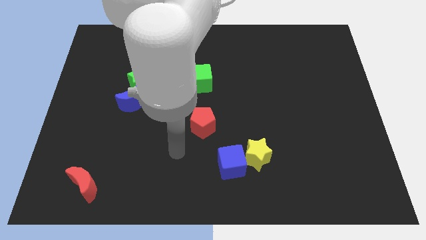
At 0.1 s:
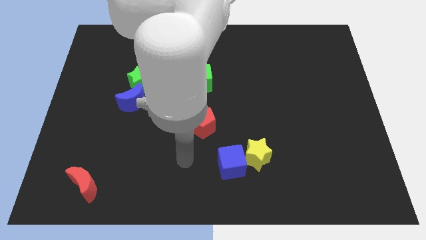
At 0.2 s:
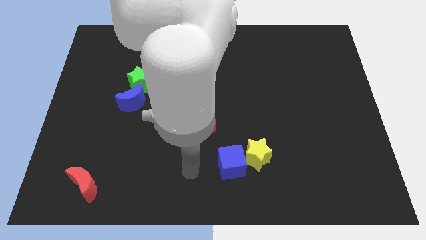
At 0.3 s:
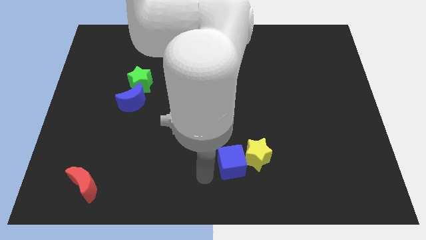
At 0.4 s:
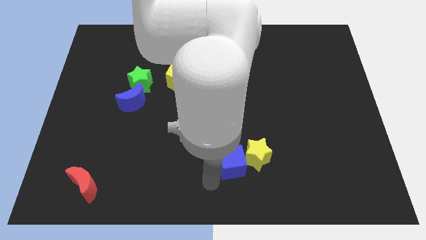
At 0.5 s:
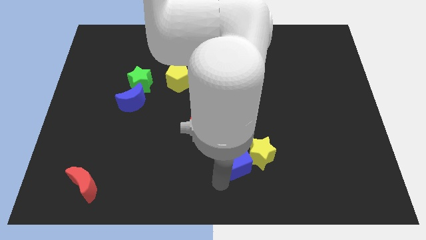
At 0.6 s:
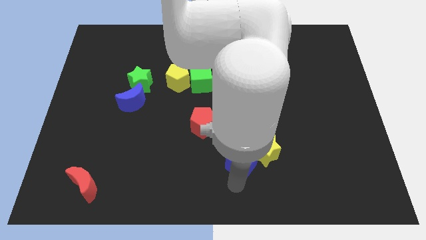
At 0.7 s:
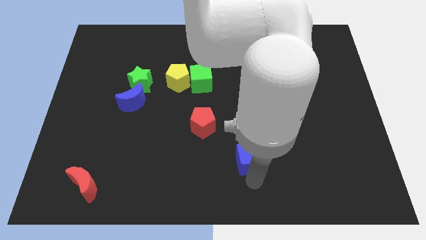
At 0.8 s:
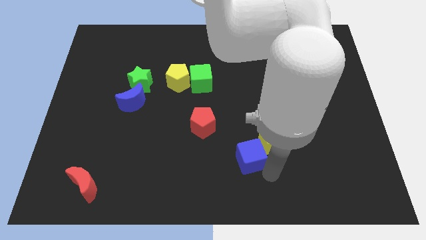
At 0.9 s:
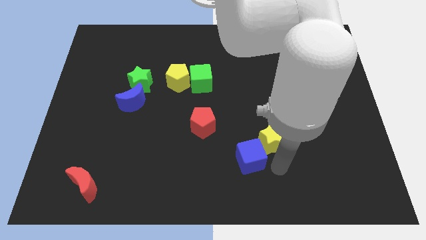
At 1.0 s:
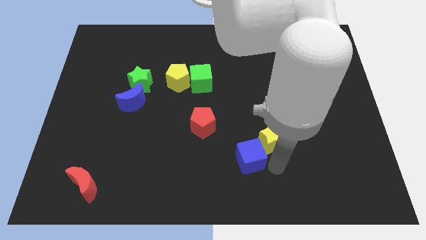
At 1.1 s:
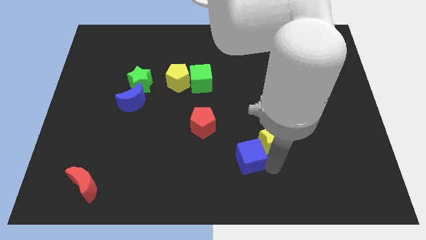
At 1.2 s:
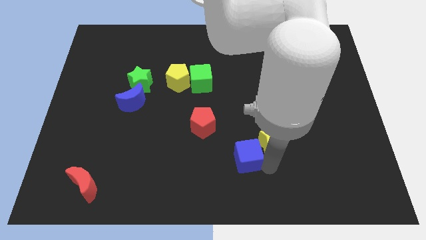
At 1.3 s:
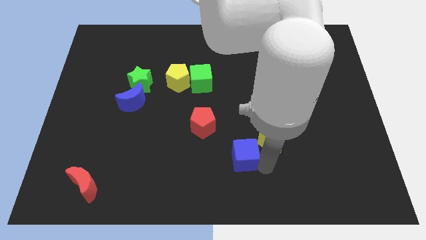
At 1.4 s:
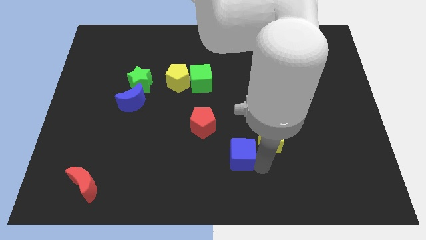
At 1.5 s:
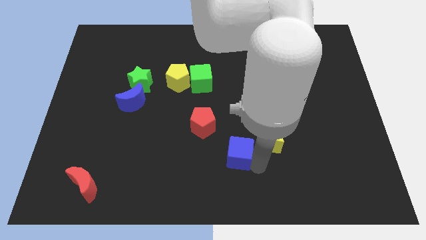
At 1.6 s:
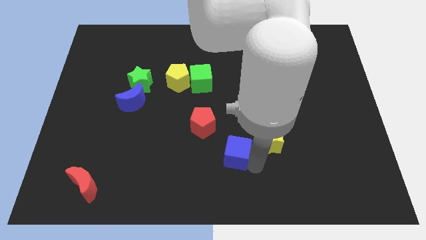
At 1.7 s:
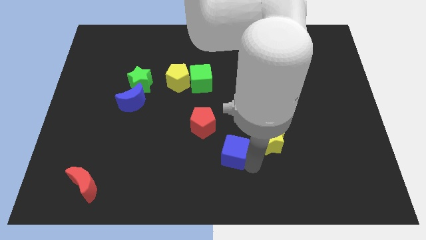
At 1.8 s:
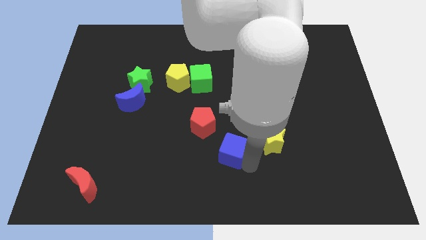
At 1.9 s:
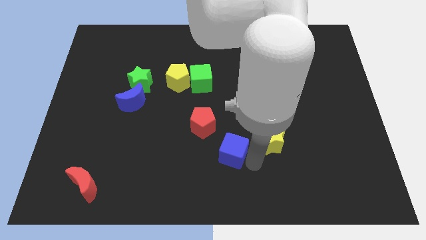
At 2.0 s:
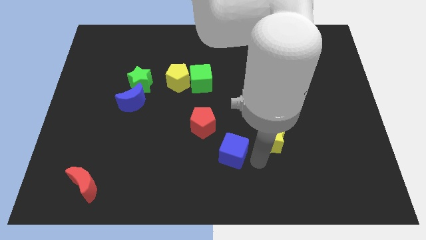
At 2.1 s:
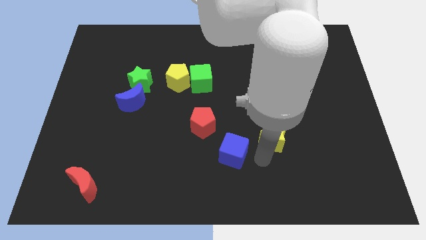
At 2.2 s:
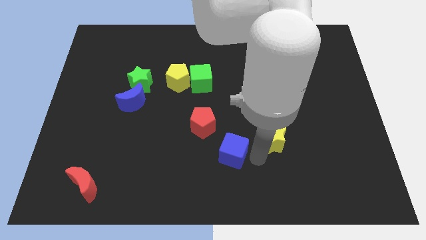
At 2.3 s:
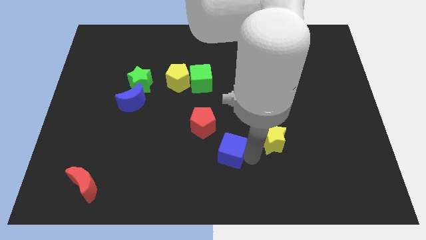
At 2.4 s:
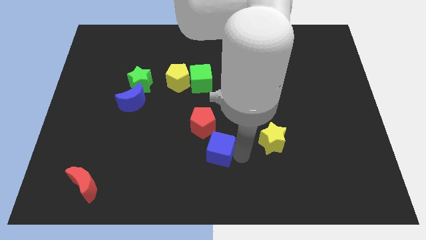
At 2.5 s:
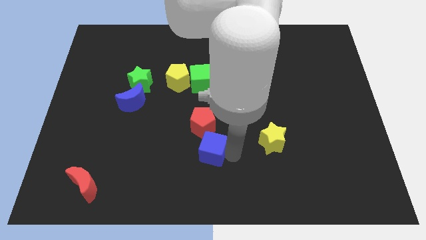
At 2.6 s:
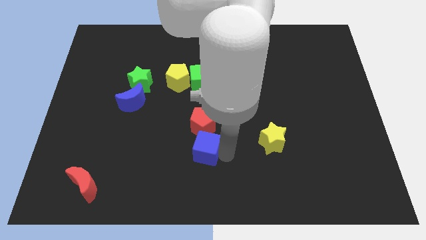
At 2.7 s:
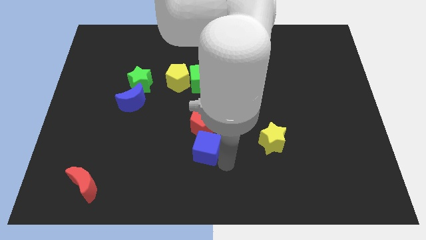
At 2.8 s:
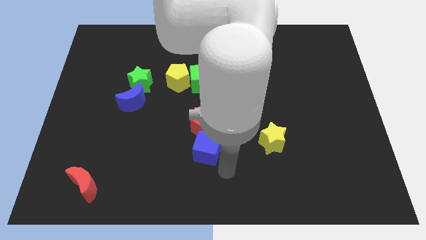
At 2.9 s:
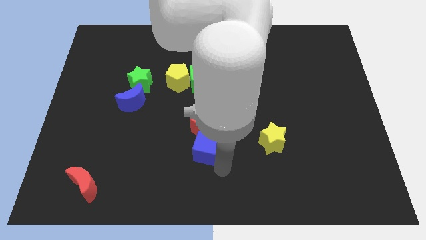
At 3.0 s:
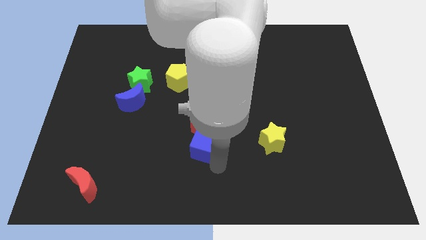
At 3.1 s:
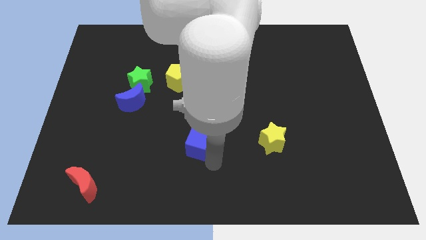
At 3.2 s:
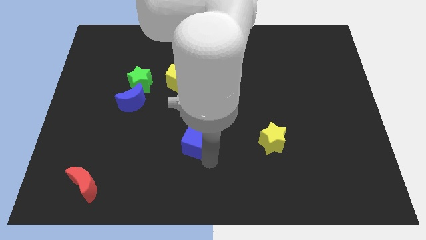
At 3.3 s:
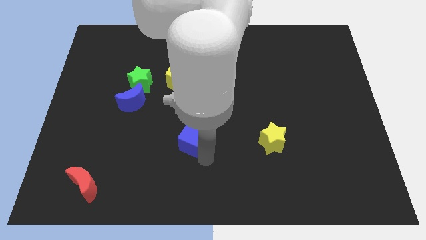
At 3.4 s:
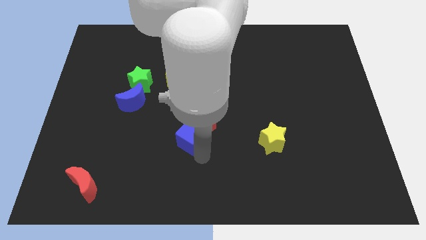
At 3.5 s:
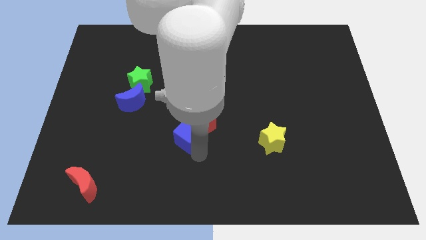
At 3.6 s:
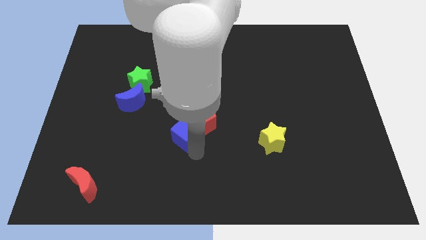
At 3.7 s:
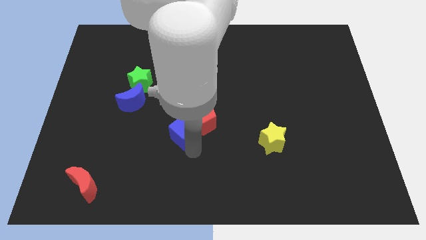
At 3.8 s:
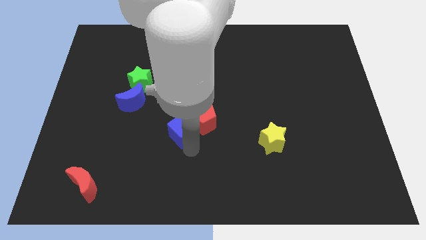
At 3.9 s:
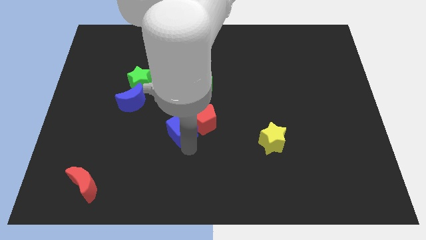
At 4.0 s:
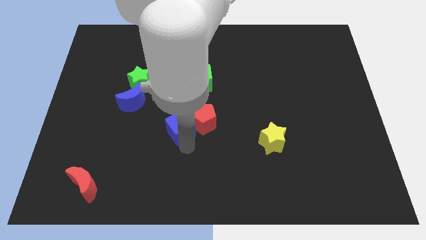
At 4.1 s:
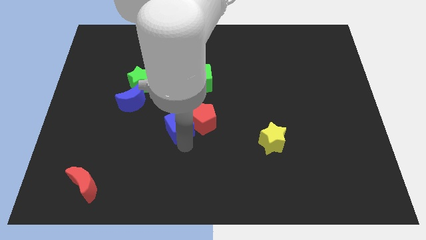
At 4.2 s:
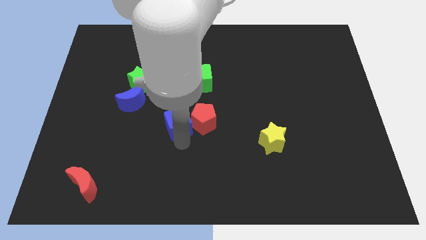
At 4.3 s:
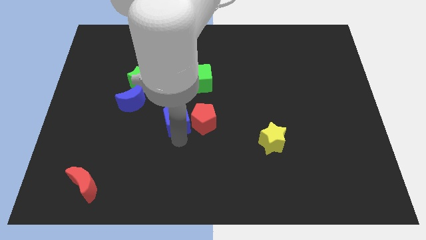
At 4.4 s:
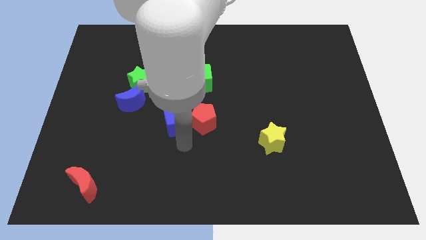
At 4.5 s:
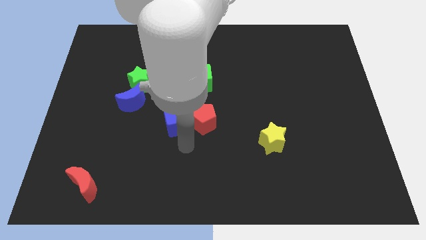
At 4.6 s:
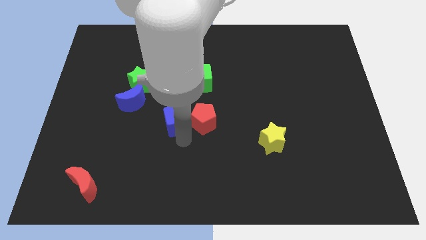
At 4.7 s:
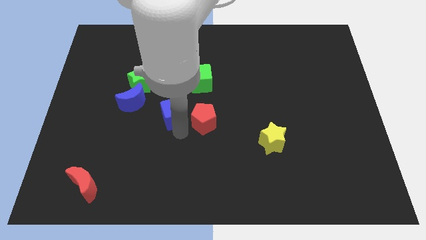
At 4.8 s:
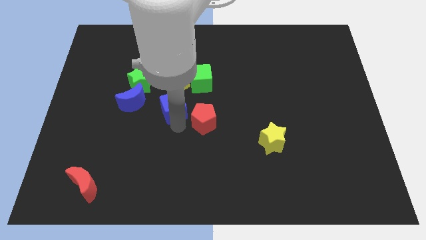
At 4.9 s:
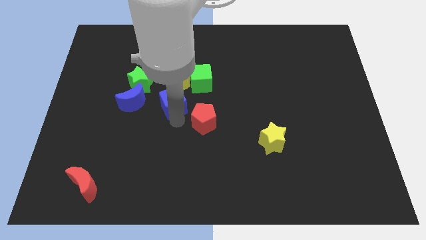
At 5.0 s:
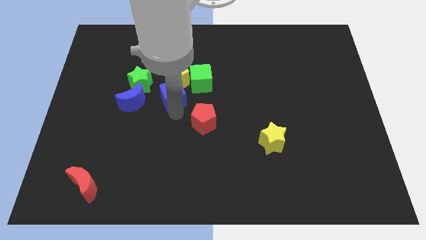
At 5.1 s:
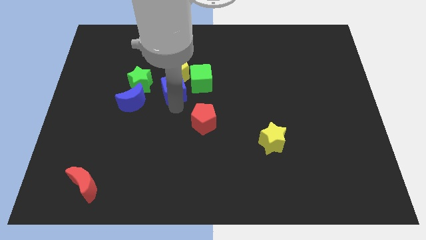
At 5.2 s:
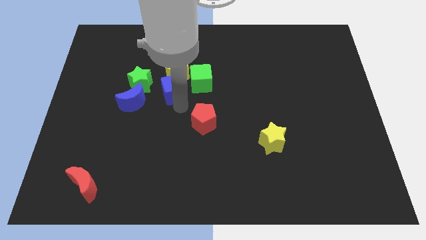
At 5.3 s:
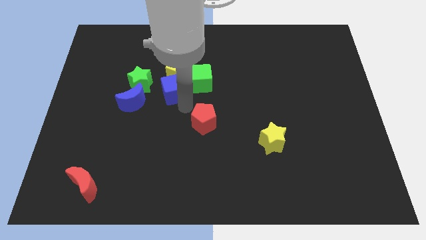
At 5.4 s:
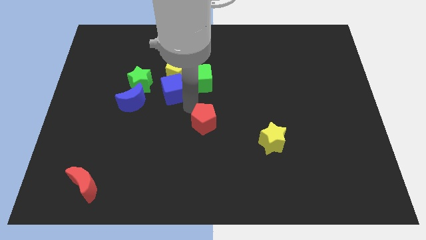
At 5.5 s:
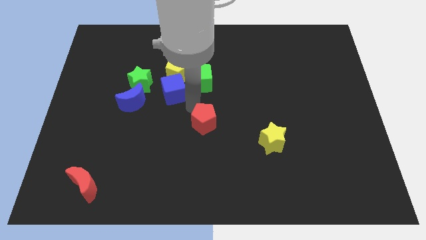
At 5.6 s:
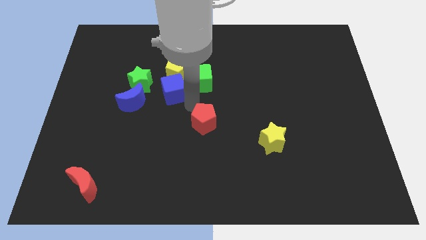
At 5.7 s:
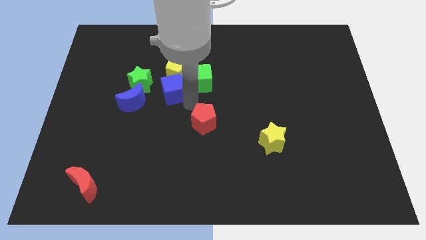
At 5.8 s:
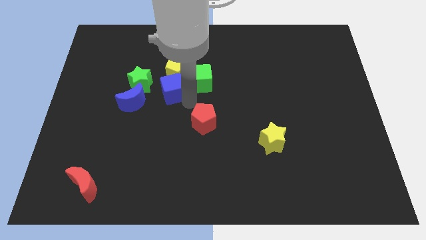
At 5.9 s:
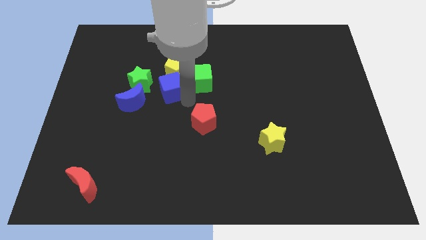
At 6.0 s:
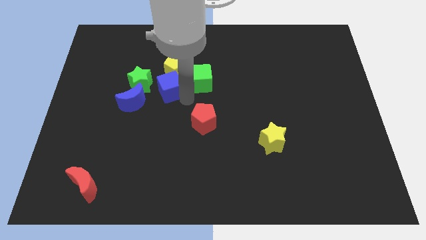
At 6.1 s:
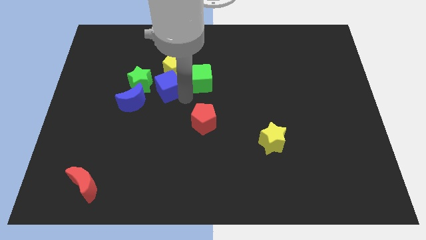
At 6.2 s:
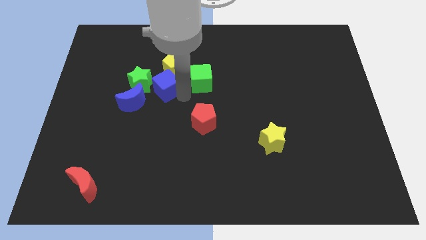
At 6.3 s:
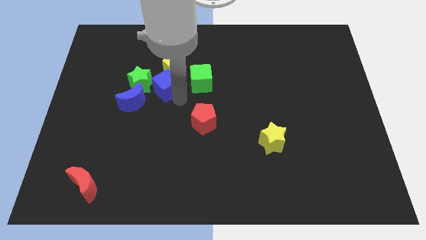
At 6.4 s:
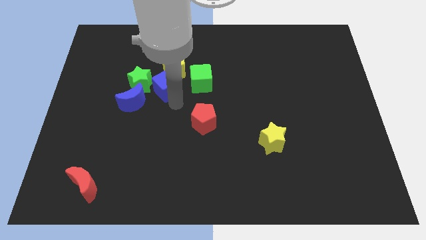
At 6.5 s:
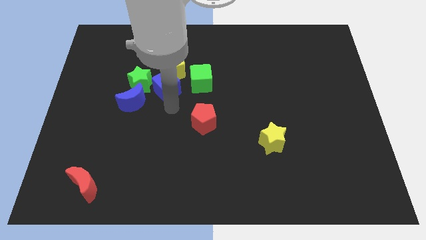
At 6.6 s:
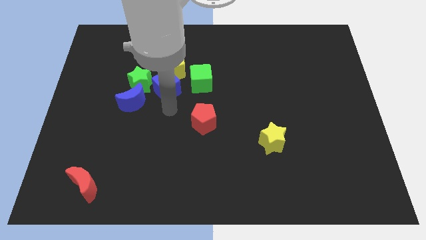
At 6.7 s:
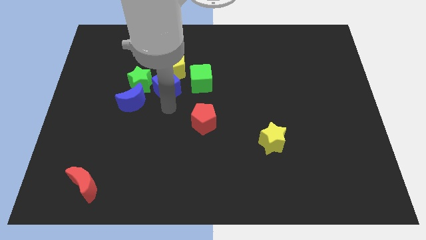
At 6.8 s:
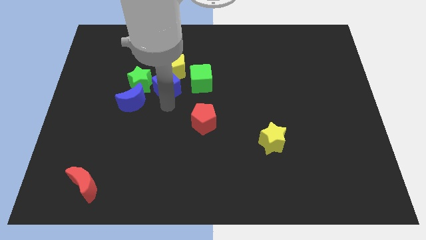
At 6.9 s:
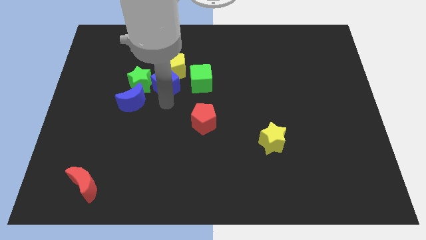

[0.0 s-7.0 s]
push the blue cube diagonally up and to the right of the green star

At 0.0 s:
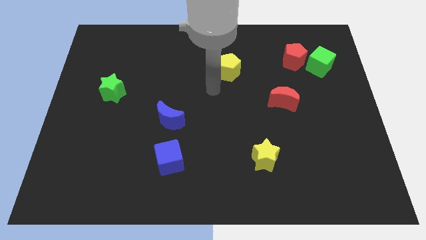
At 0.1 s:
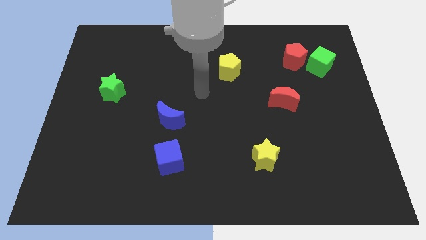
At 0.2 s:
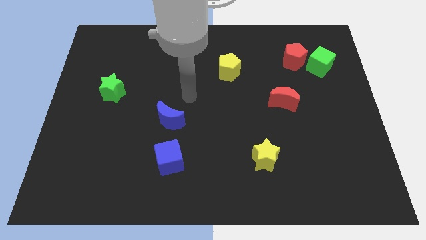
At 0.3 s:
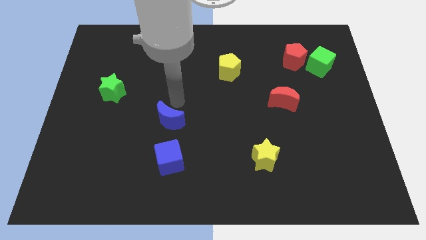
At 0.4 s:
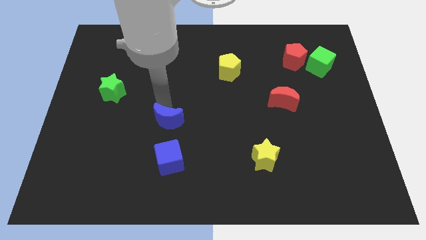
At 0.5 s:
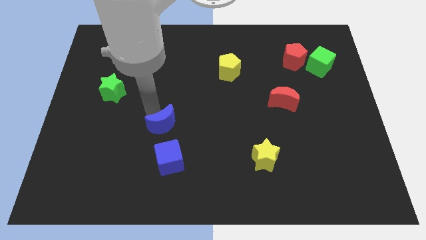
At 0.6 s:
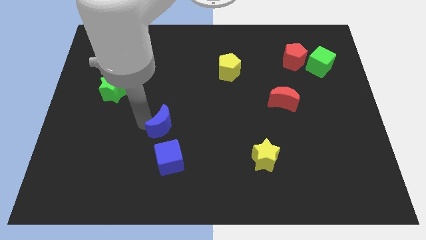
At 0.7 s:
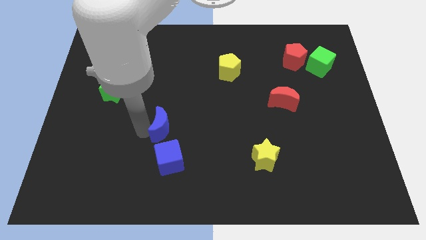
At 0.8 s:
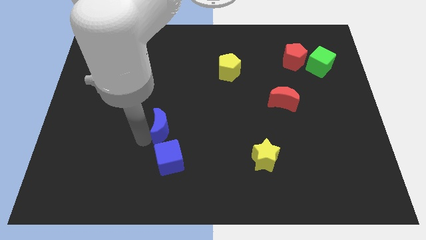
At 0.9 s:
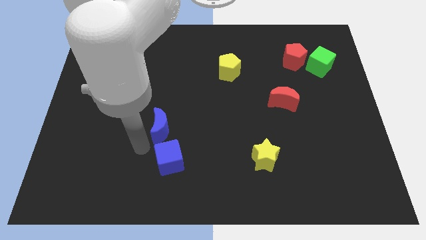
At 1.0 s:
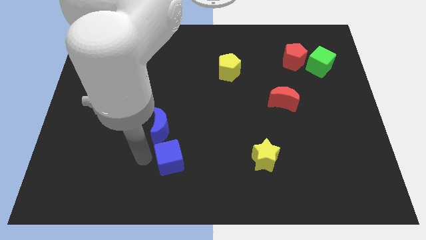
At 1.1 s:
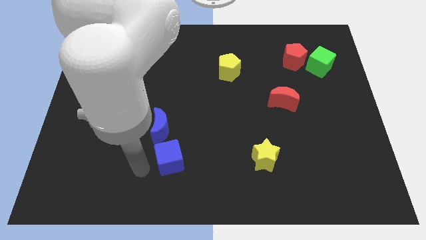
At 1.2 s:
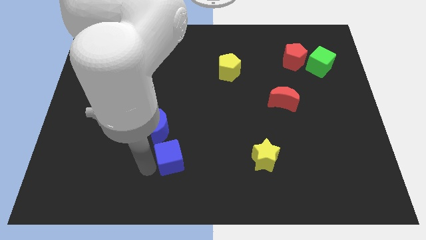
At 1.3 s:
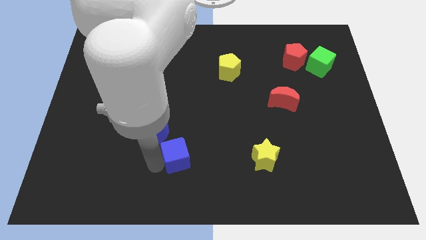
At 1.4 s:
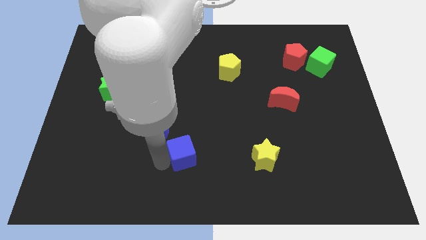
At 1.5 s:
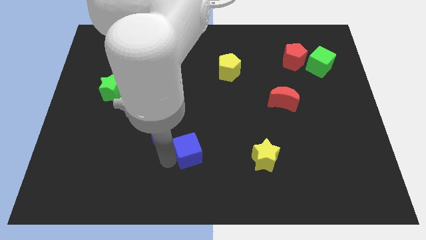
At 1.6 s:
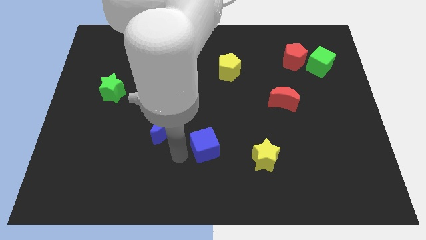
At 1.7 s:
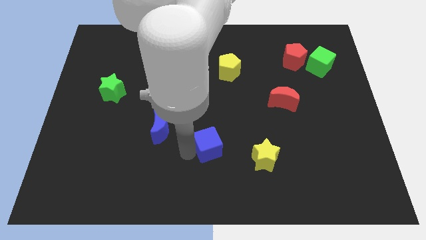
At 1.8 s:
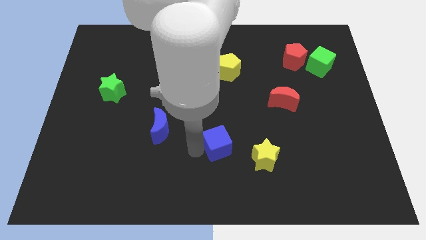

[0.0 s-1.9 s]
slide the blue cube to the top left of the yellow star
